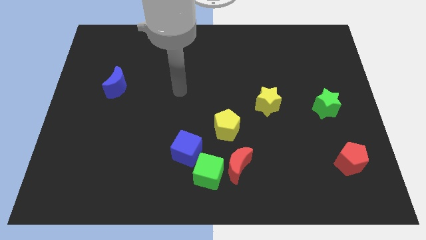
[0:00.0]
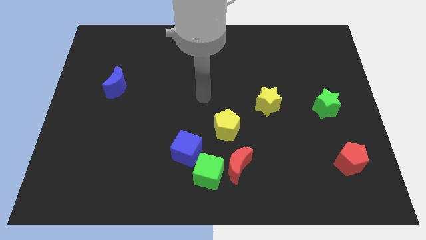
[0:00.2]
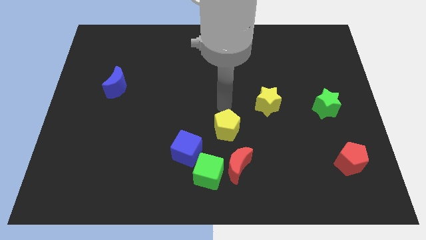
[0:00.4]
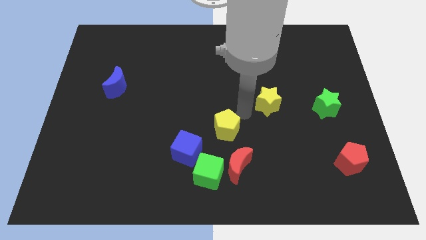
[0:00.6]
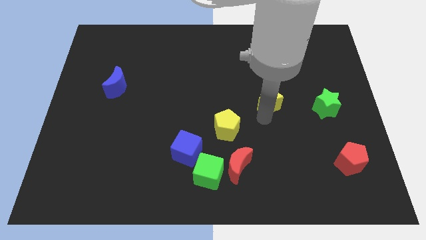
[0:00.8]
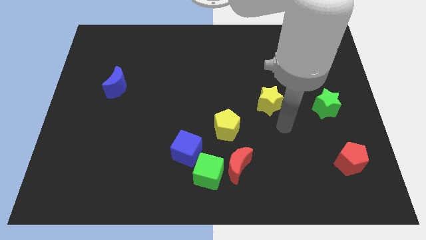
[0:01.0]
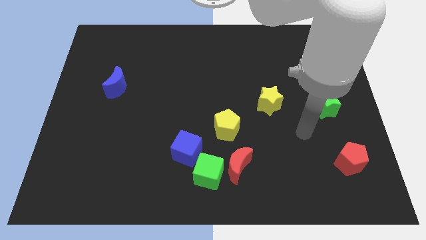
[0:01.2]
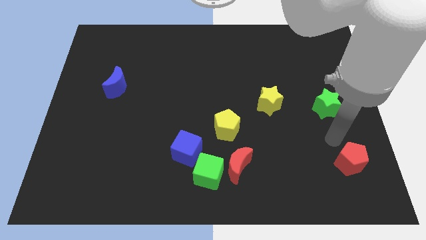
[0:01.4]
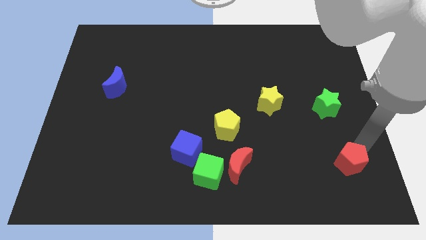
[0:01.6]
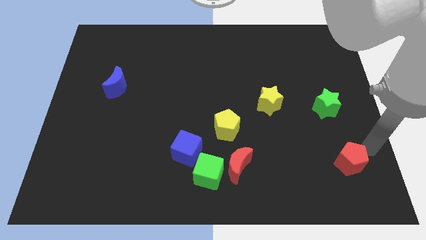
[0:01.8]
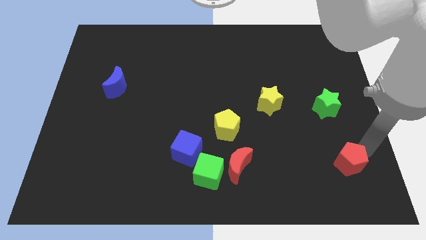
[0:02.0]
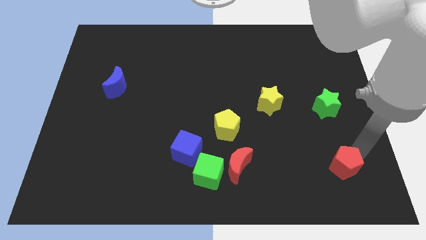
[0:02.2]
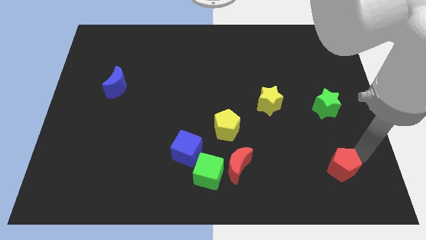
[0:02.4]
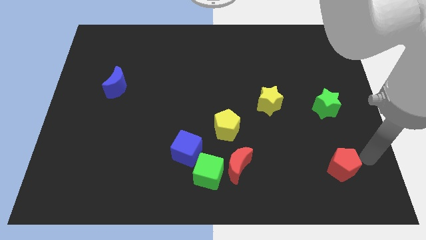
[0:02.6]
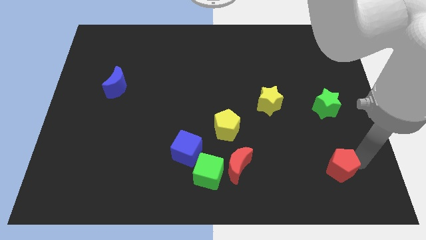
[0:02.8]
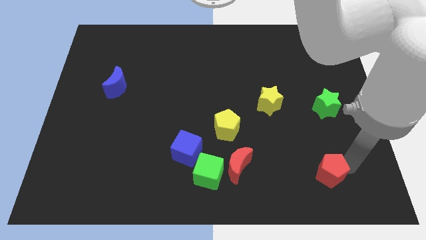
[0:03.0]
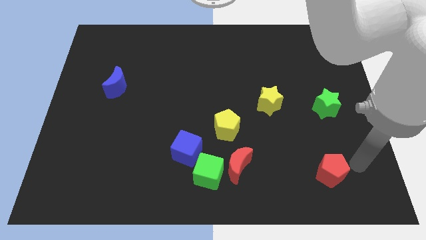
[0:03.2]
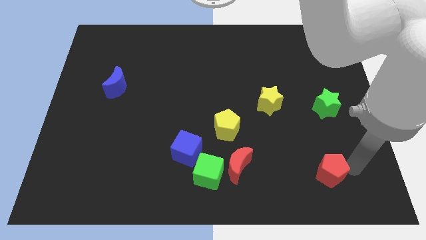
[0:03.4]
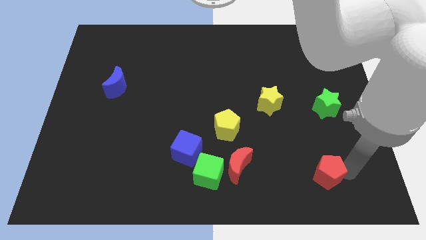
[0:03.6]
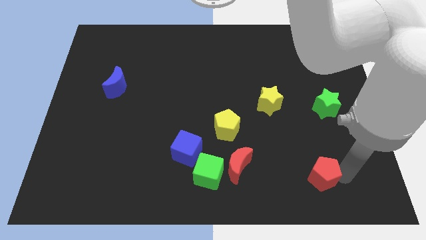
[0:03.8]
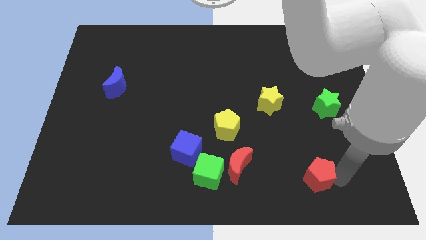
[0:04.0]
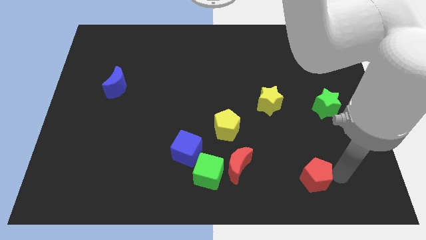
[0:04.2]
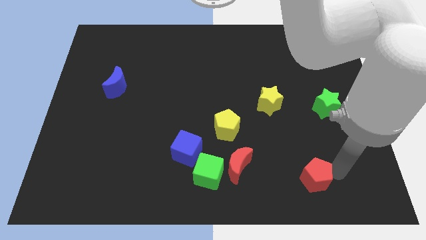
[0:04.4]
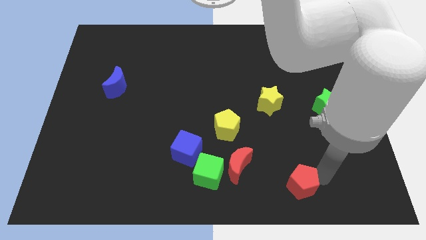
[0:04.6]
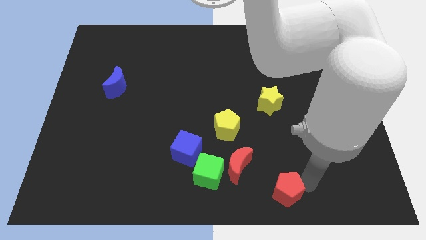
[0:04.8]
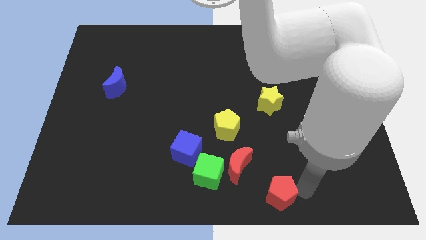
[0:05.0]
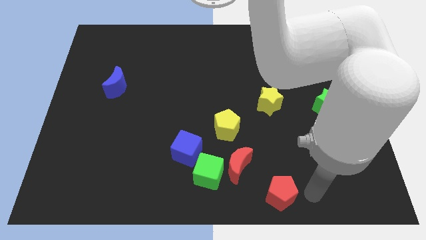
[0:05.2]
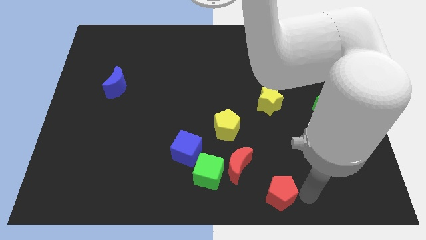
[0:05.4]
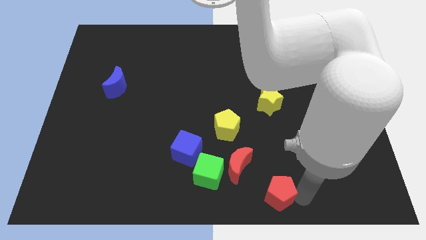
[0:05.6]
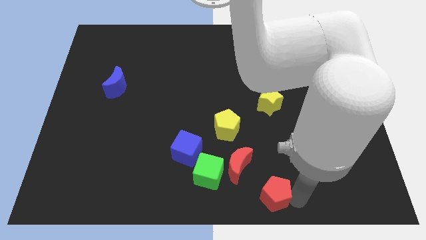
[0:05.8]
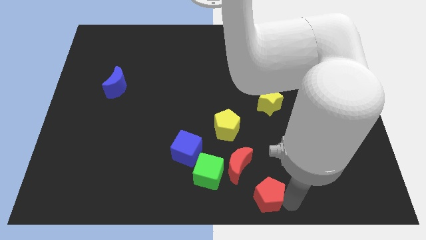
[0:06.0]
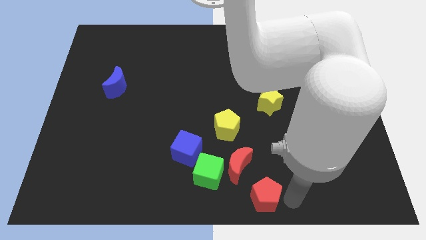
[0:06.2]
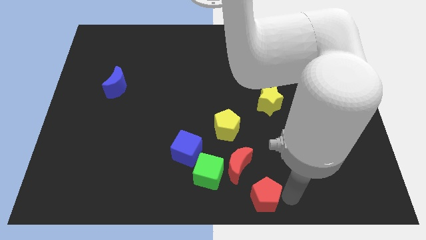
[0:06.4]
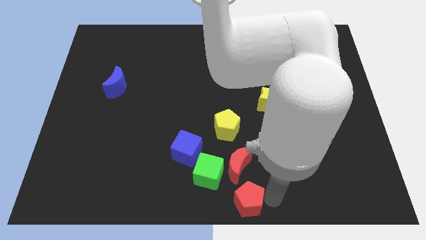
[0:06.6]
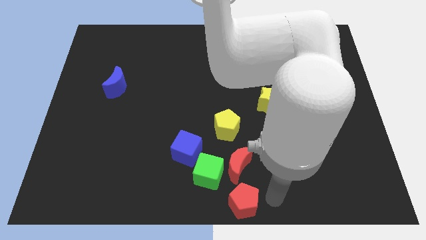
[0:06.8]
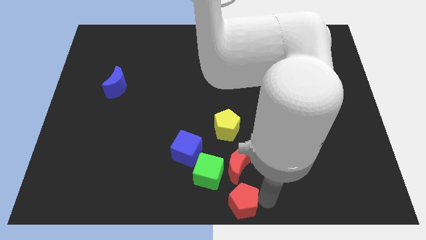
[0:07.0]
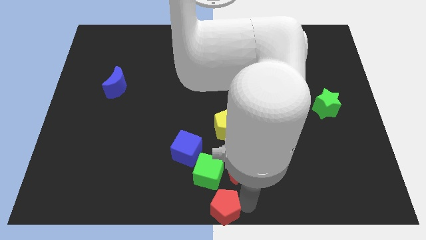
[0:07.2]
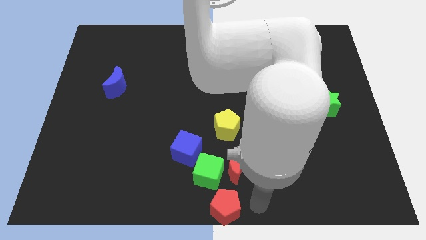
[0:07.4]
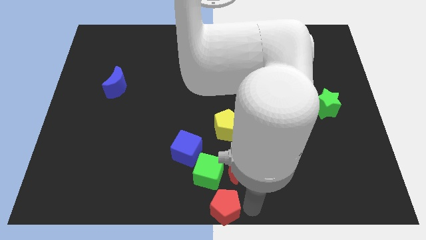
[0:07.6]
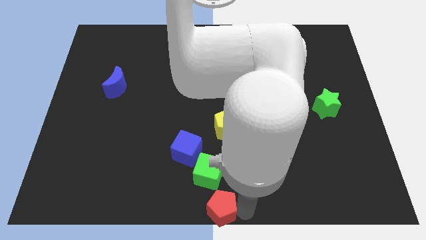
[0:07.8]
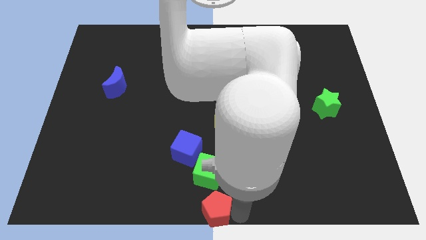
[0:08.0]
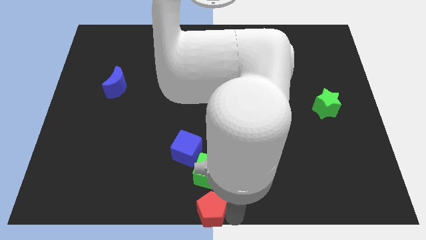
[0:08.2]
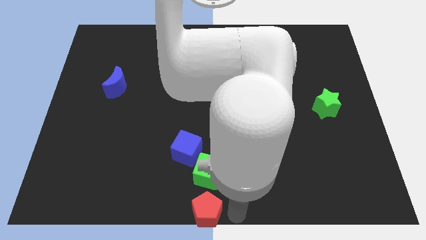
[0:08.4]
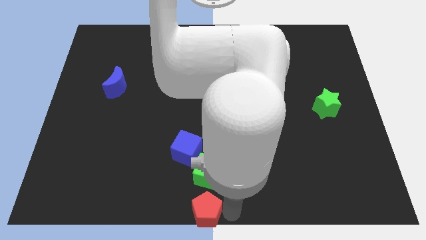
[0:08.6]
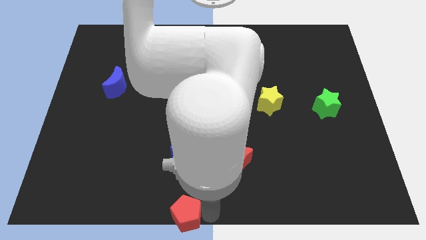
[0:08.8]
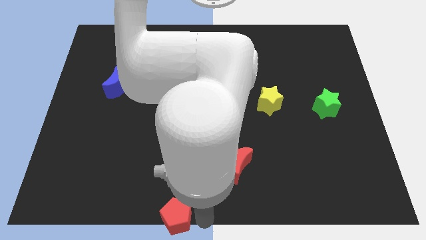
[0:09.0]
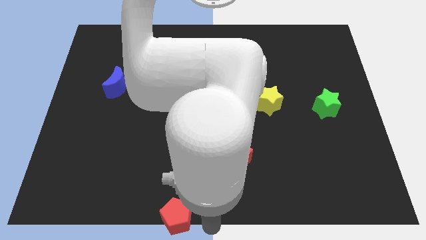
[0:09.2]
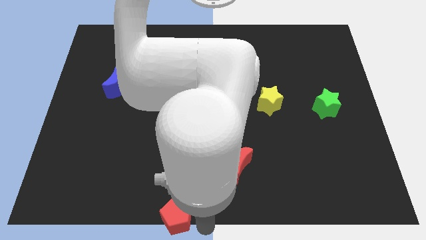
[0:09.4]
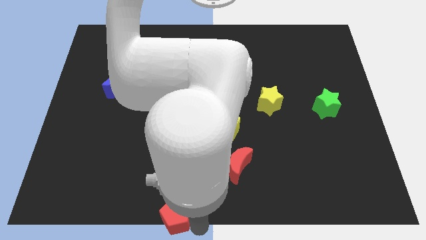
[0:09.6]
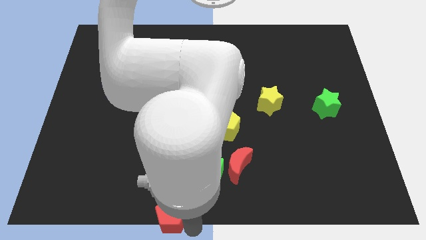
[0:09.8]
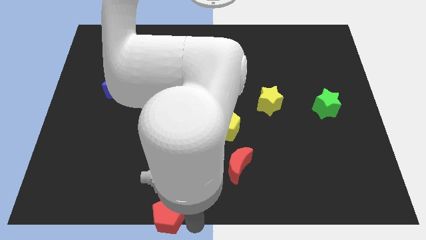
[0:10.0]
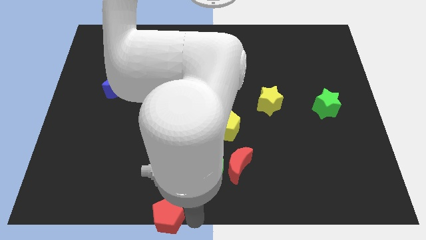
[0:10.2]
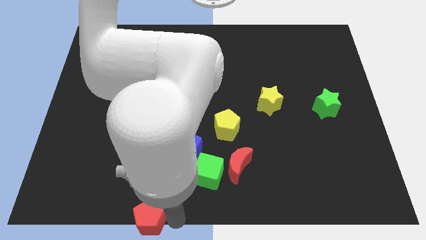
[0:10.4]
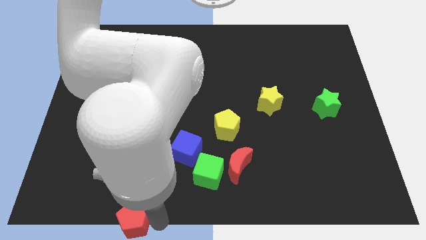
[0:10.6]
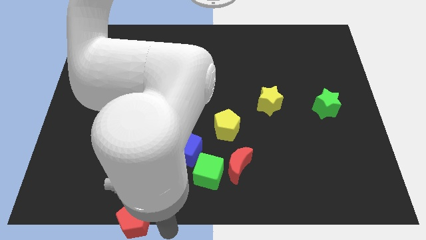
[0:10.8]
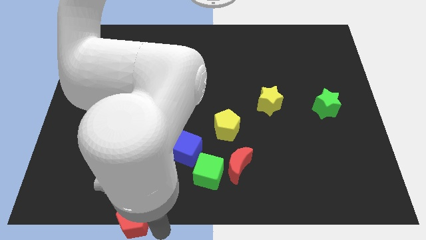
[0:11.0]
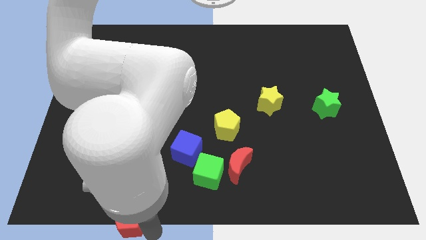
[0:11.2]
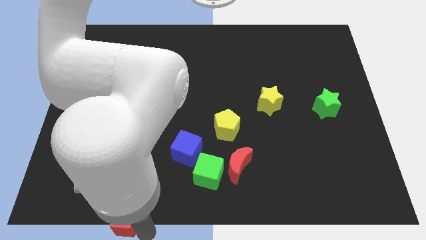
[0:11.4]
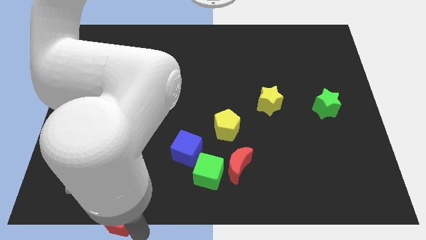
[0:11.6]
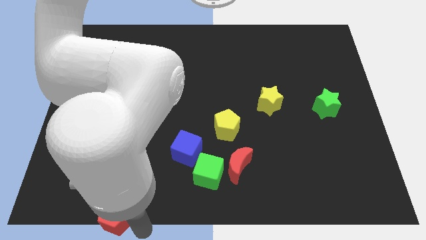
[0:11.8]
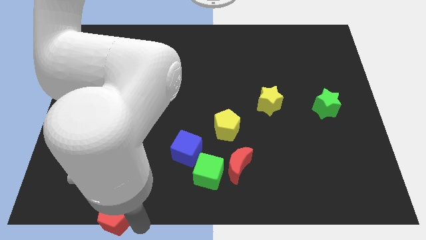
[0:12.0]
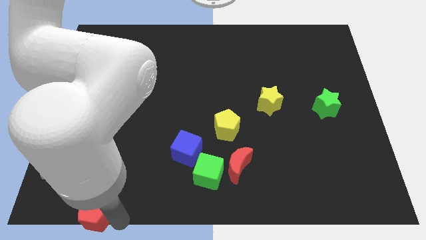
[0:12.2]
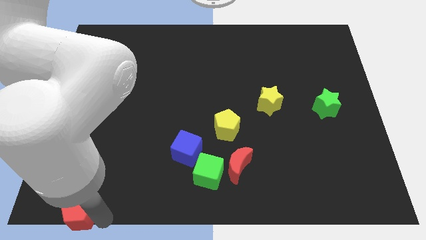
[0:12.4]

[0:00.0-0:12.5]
move the red pentagon to the bottom left of the board
